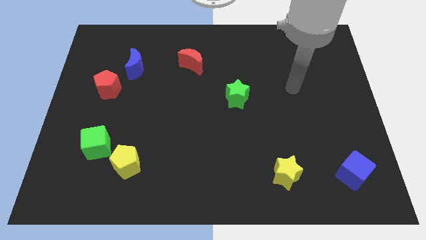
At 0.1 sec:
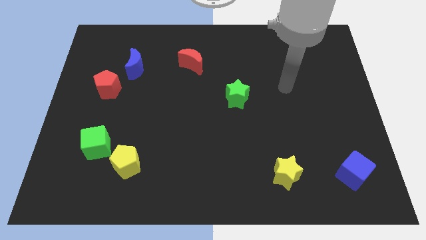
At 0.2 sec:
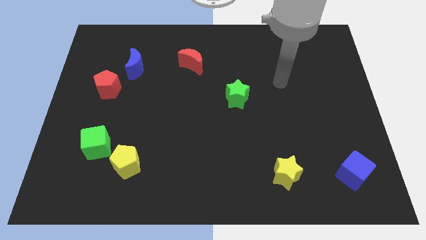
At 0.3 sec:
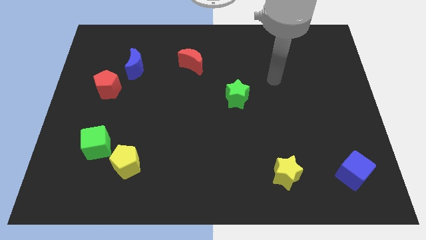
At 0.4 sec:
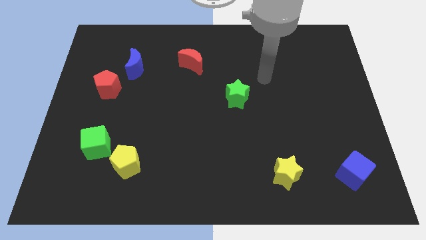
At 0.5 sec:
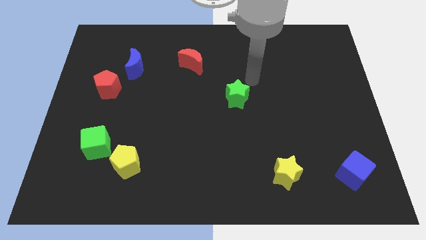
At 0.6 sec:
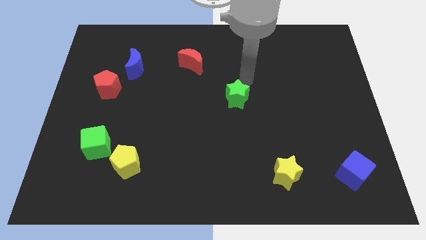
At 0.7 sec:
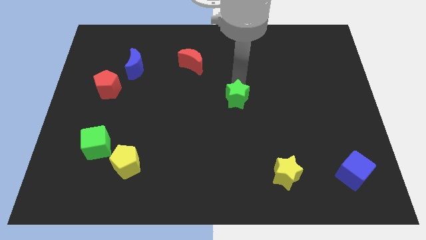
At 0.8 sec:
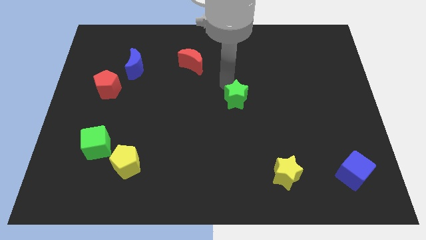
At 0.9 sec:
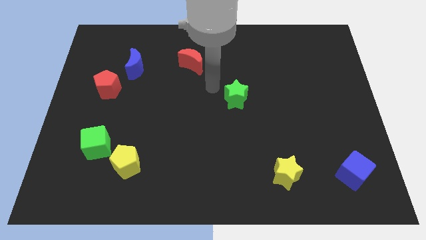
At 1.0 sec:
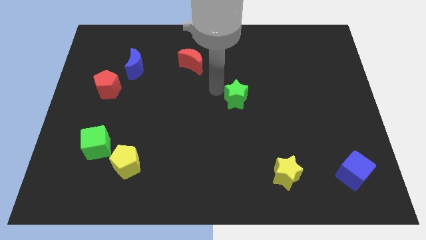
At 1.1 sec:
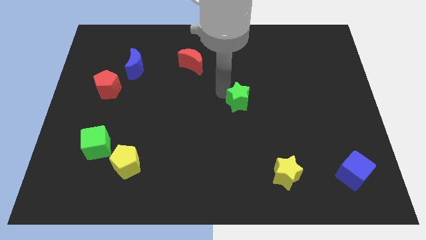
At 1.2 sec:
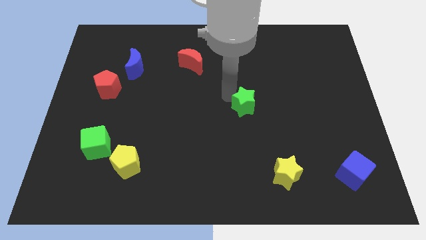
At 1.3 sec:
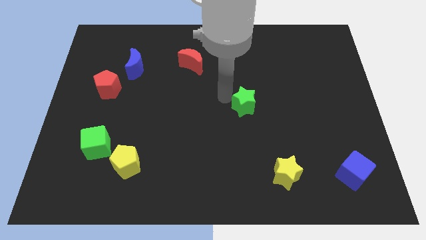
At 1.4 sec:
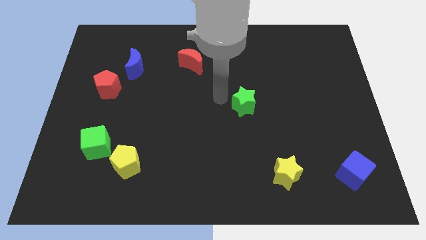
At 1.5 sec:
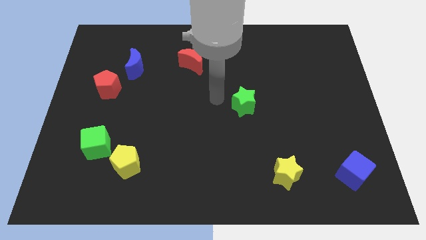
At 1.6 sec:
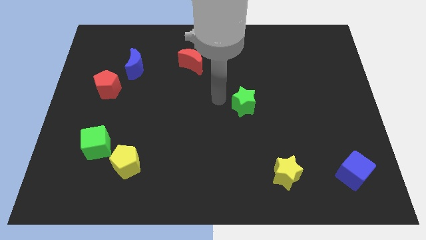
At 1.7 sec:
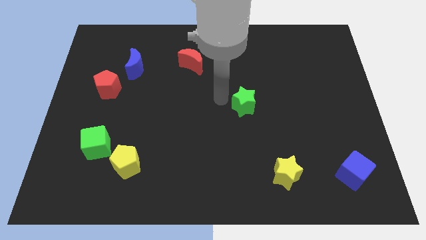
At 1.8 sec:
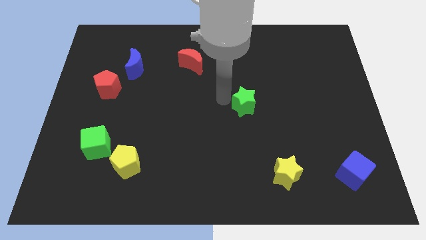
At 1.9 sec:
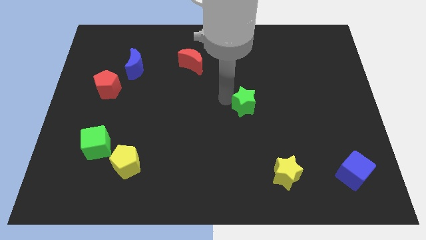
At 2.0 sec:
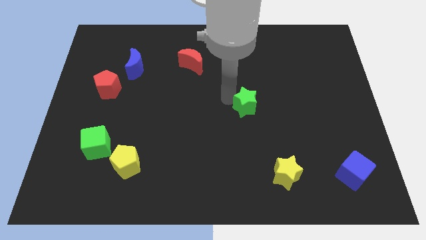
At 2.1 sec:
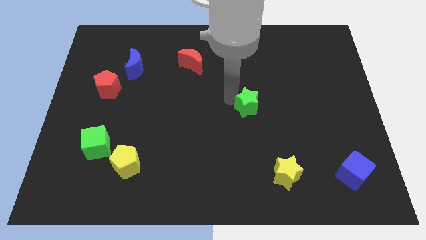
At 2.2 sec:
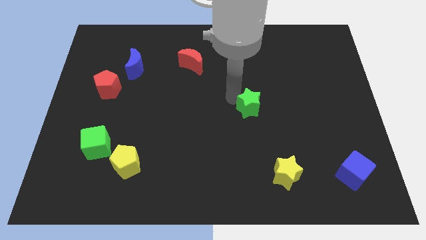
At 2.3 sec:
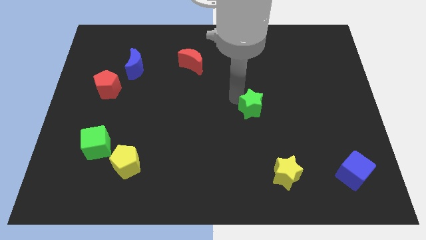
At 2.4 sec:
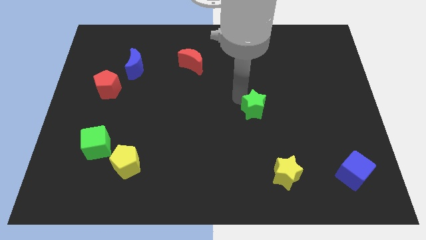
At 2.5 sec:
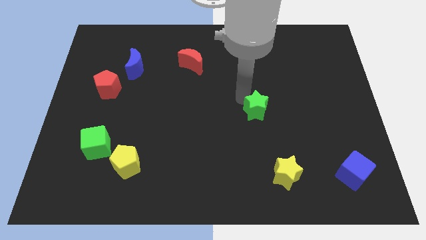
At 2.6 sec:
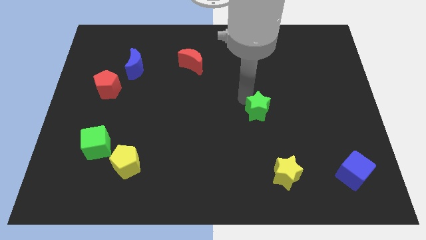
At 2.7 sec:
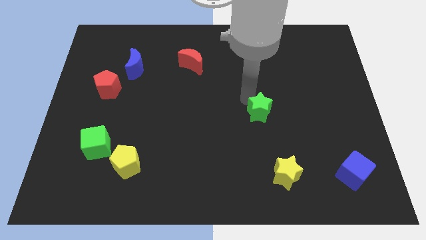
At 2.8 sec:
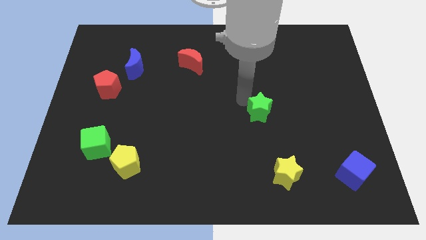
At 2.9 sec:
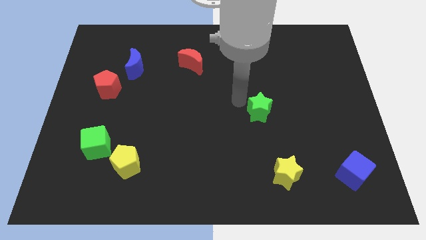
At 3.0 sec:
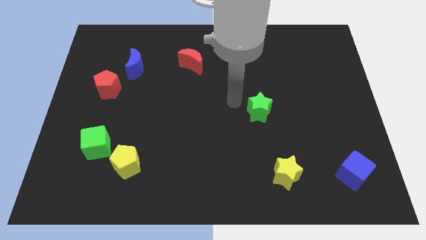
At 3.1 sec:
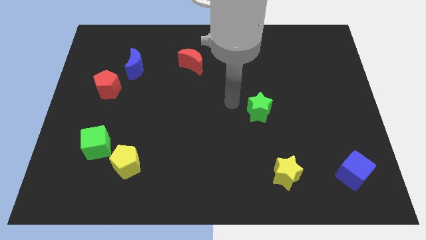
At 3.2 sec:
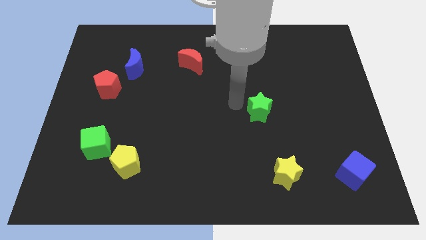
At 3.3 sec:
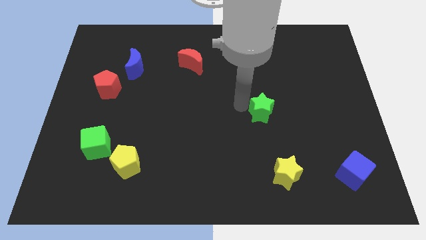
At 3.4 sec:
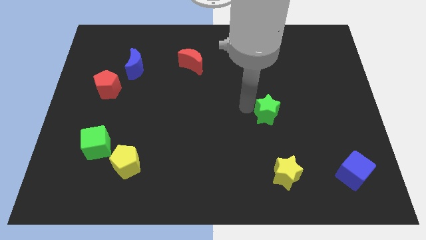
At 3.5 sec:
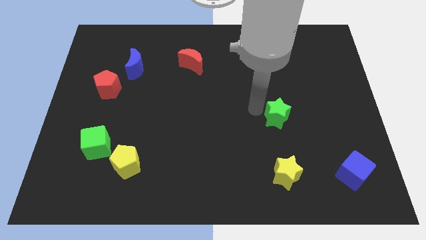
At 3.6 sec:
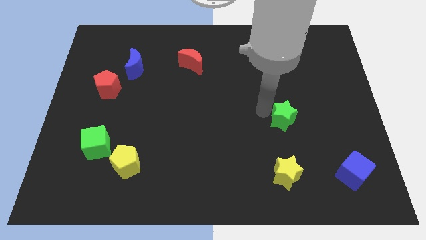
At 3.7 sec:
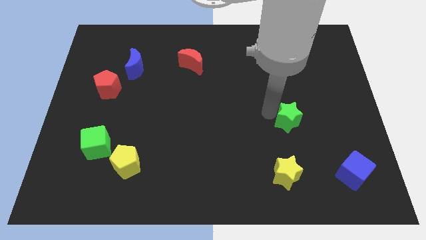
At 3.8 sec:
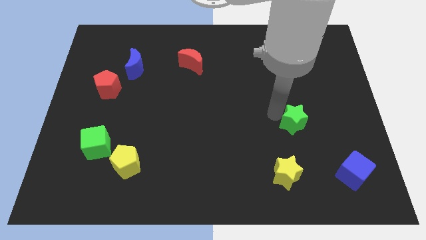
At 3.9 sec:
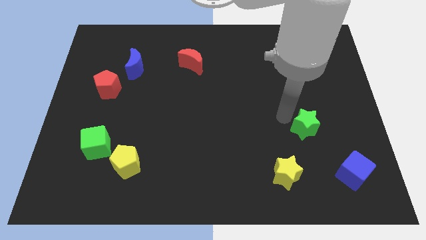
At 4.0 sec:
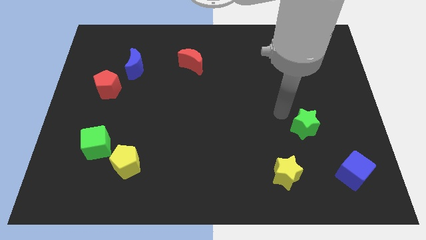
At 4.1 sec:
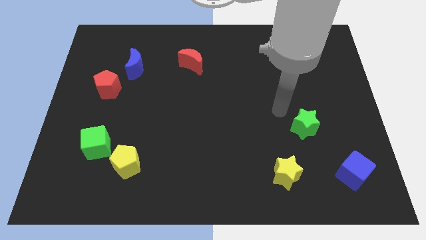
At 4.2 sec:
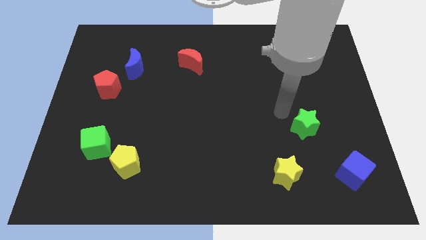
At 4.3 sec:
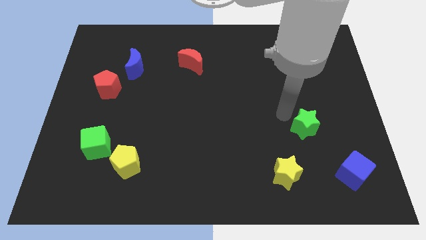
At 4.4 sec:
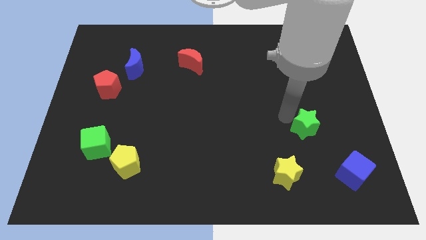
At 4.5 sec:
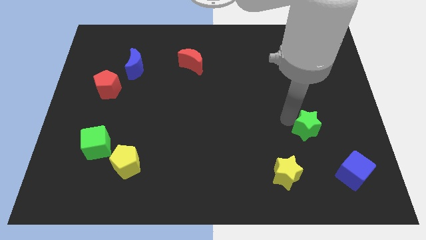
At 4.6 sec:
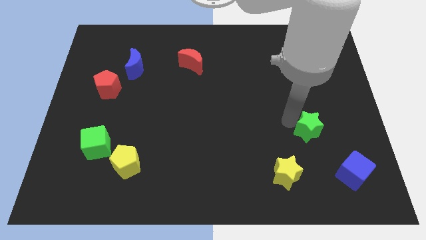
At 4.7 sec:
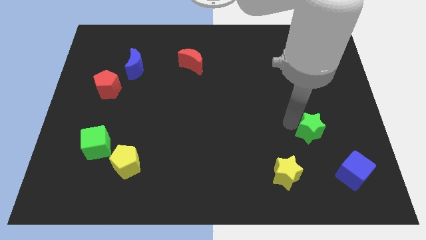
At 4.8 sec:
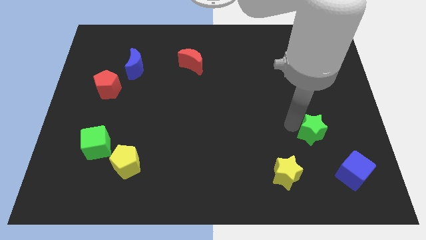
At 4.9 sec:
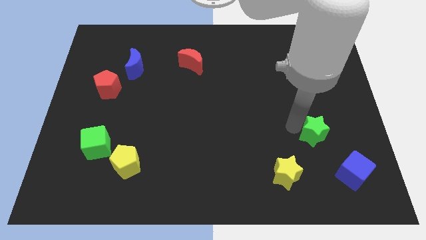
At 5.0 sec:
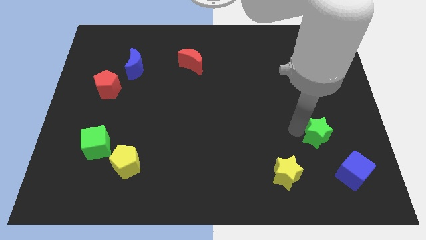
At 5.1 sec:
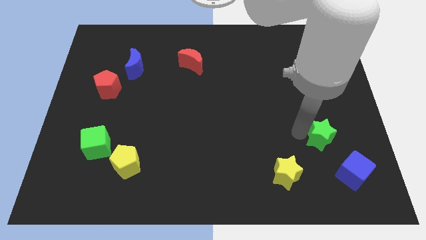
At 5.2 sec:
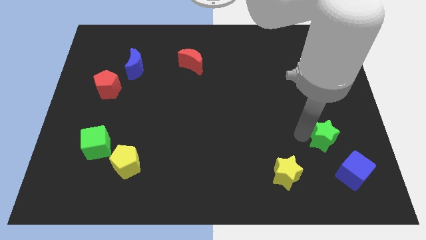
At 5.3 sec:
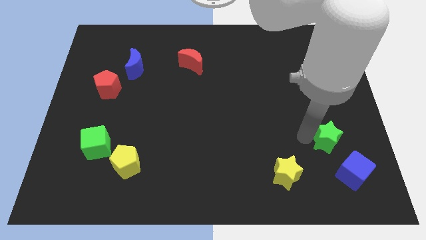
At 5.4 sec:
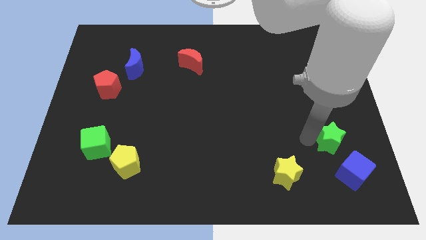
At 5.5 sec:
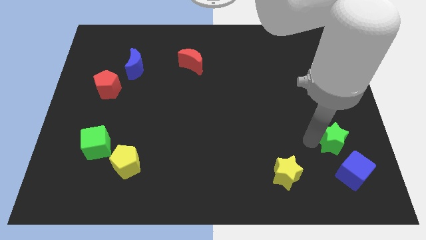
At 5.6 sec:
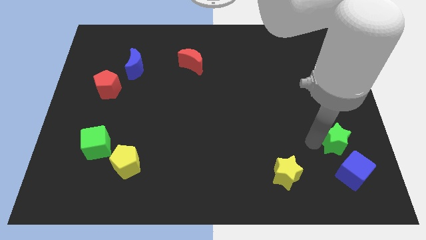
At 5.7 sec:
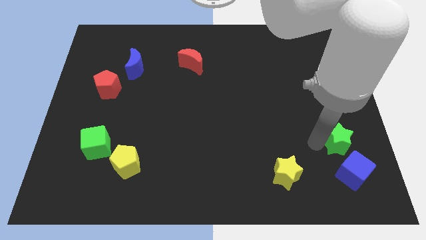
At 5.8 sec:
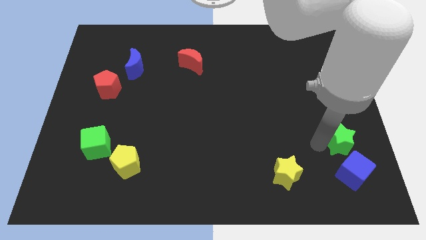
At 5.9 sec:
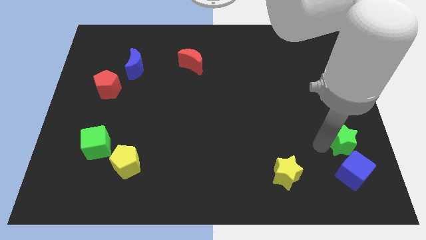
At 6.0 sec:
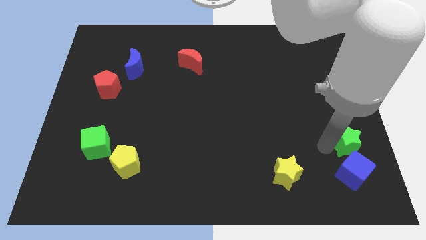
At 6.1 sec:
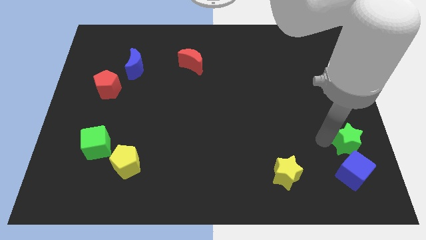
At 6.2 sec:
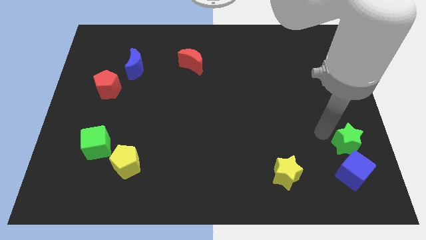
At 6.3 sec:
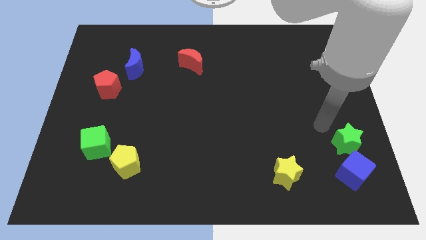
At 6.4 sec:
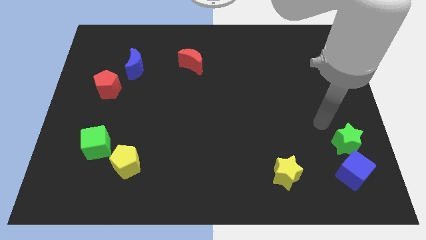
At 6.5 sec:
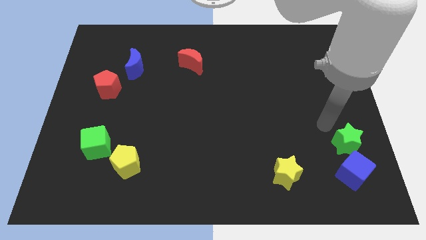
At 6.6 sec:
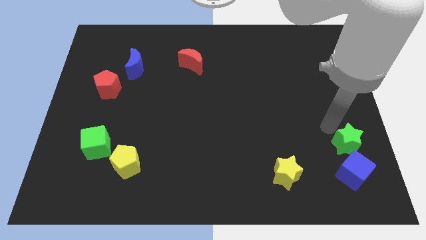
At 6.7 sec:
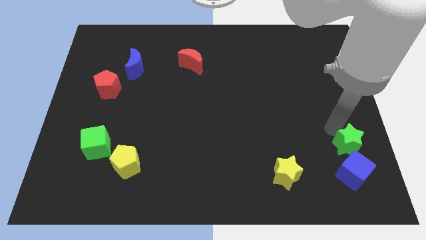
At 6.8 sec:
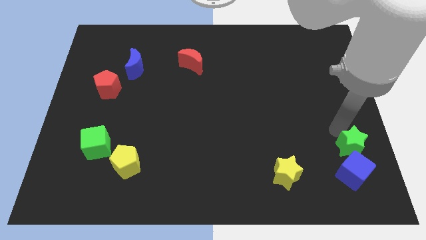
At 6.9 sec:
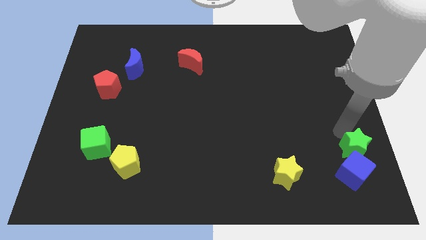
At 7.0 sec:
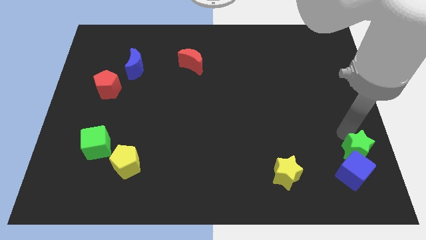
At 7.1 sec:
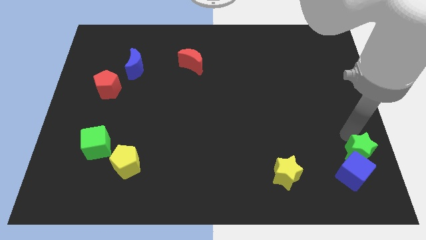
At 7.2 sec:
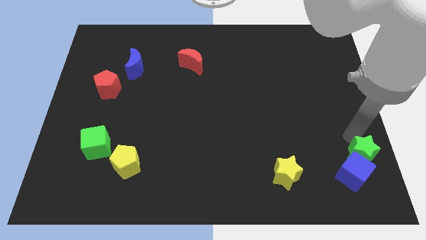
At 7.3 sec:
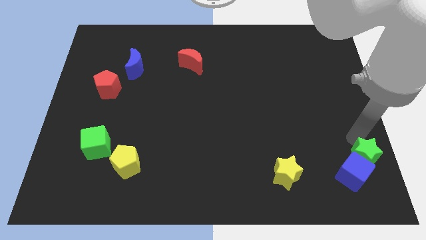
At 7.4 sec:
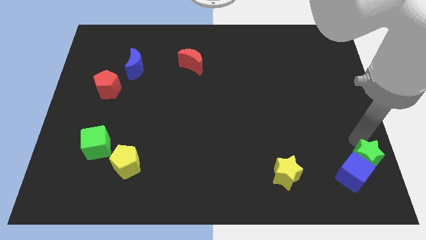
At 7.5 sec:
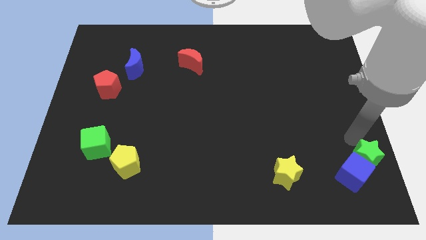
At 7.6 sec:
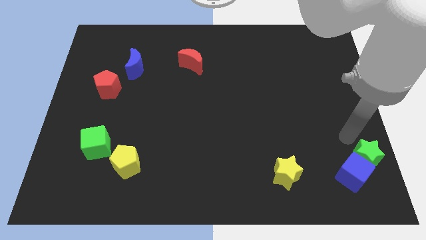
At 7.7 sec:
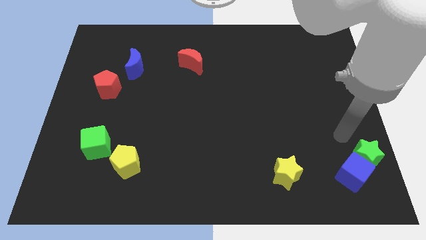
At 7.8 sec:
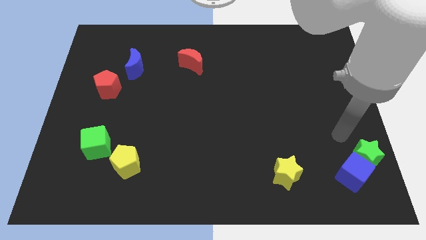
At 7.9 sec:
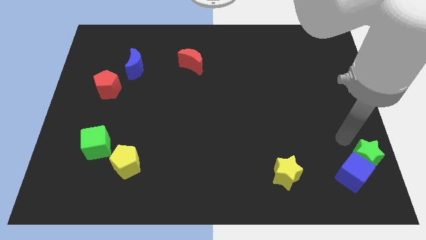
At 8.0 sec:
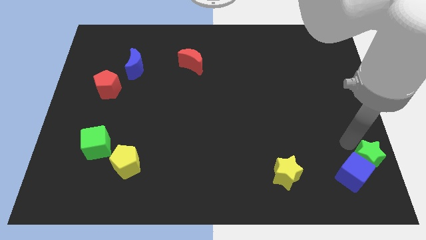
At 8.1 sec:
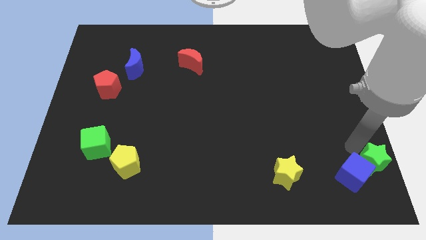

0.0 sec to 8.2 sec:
put the green star to the lower right corner
